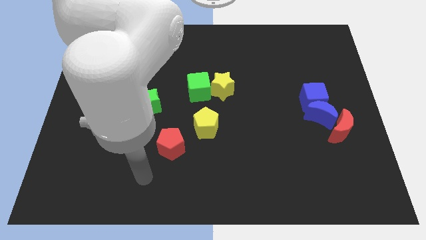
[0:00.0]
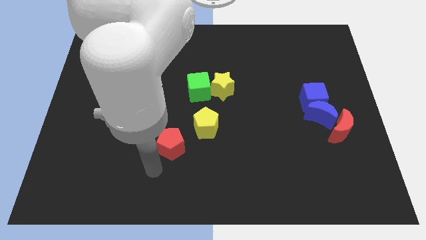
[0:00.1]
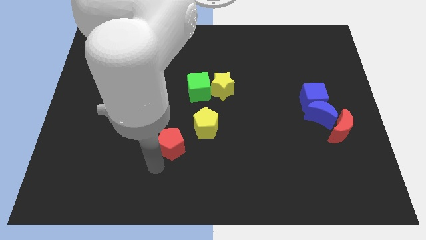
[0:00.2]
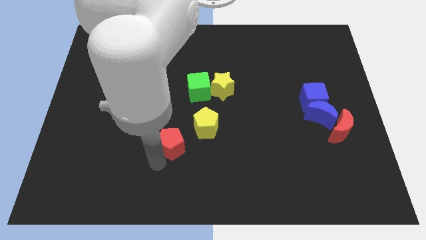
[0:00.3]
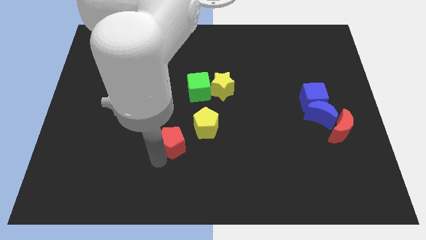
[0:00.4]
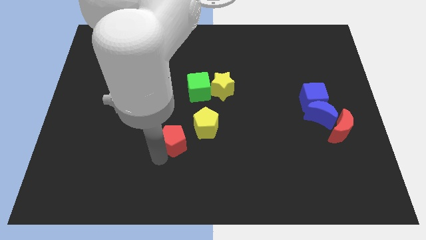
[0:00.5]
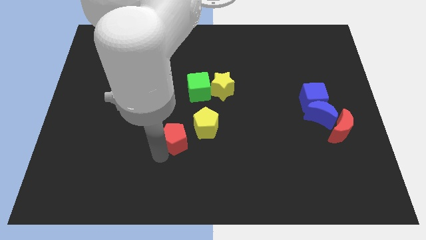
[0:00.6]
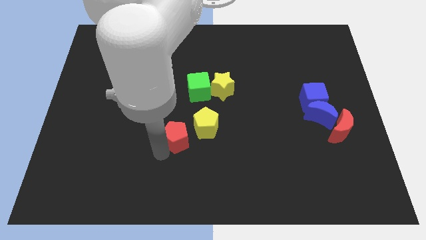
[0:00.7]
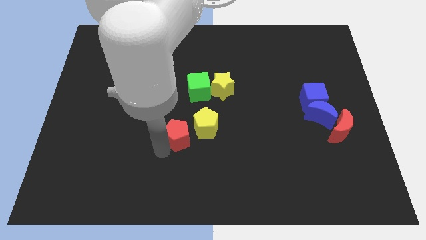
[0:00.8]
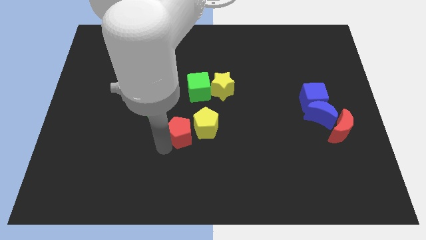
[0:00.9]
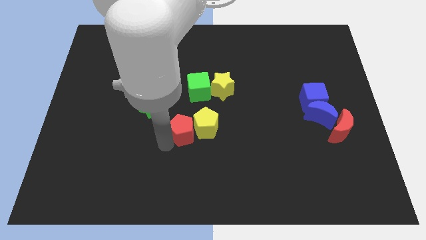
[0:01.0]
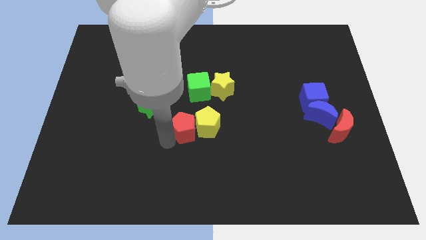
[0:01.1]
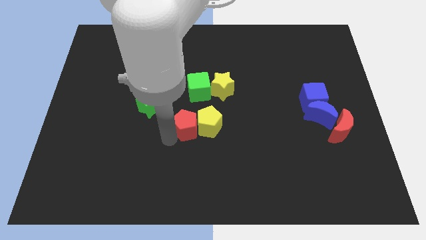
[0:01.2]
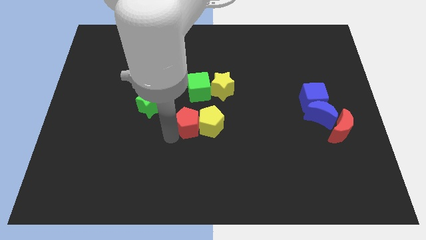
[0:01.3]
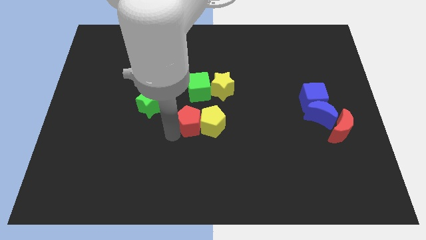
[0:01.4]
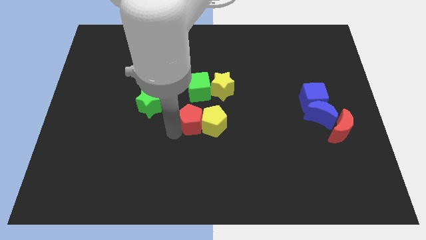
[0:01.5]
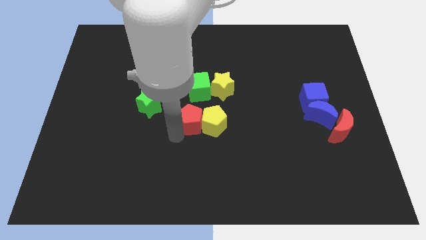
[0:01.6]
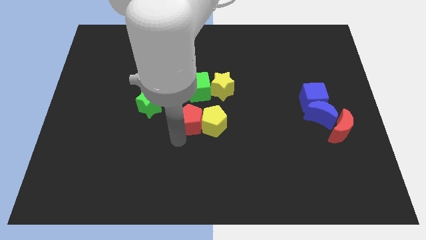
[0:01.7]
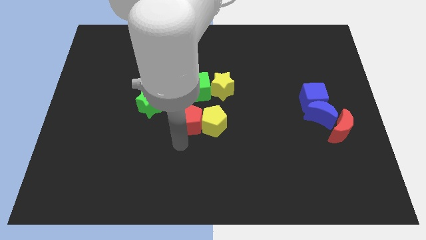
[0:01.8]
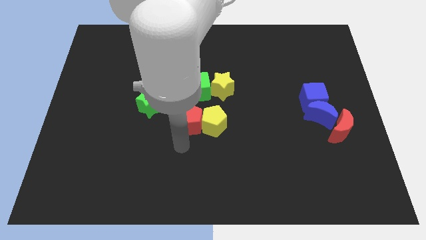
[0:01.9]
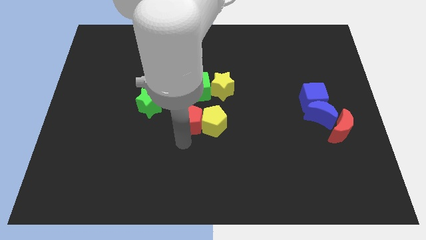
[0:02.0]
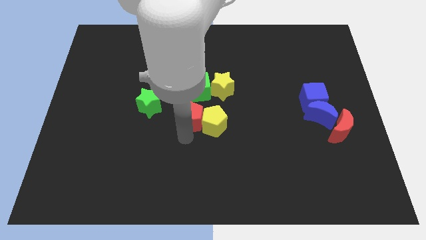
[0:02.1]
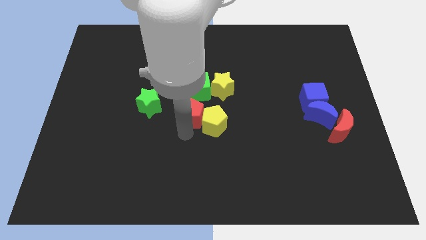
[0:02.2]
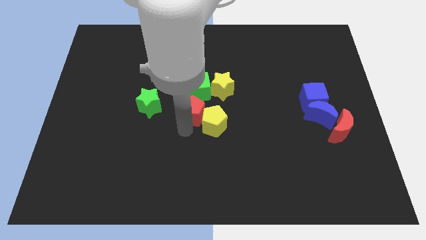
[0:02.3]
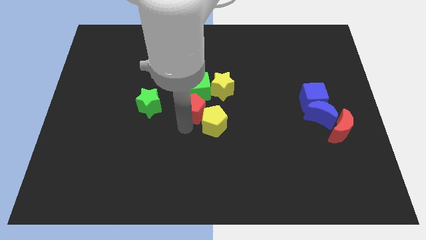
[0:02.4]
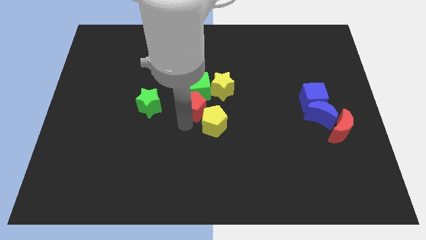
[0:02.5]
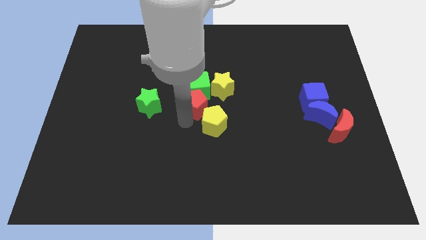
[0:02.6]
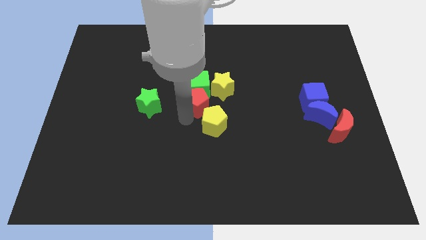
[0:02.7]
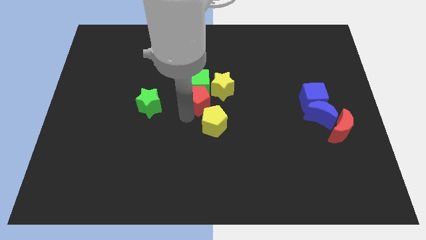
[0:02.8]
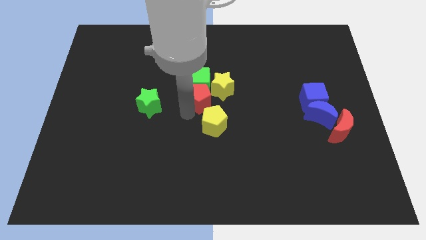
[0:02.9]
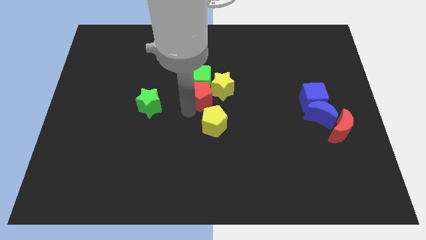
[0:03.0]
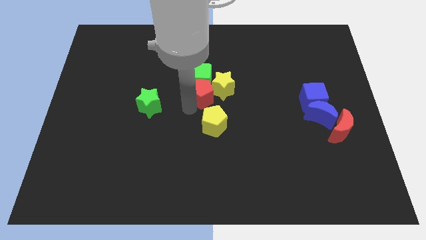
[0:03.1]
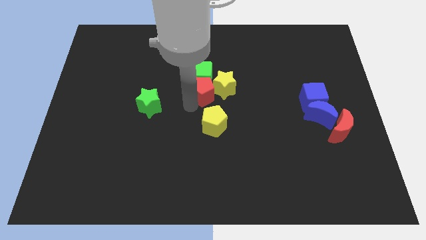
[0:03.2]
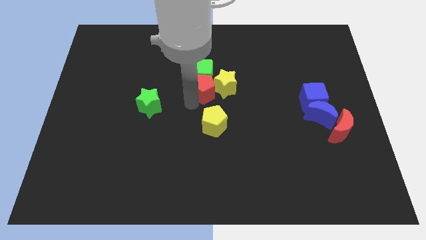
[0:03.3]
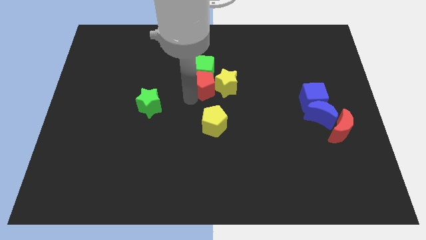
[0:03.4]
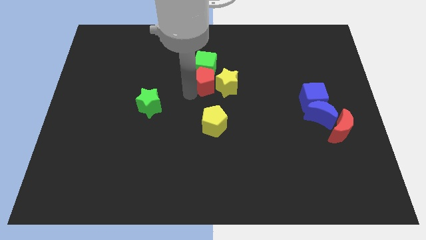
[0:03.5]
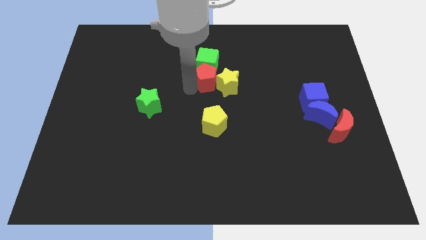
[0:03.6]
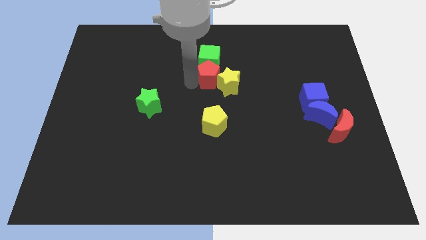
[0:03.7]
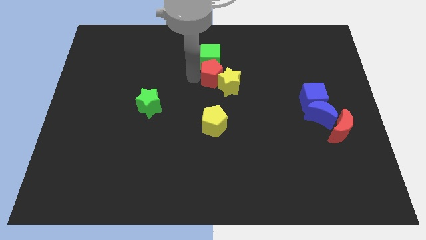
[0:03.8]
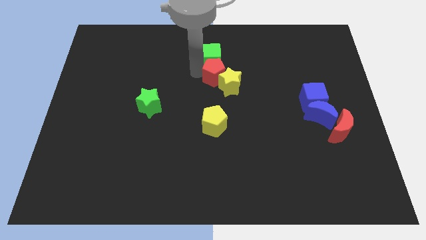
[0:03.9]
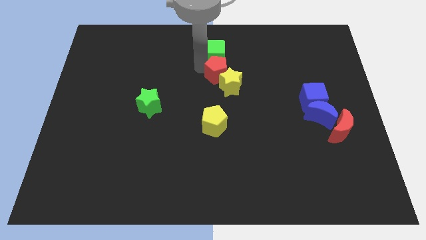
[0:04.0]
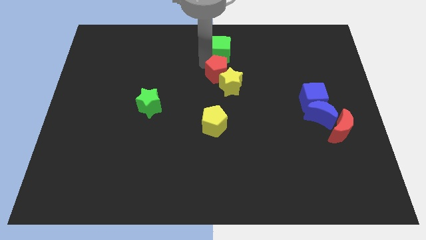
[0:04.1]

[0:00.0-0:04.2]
slide the red pentagon up and to the right diagonally

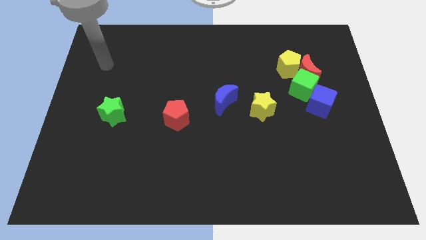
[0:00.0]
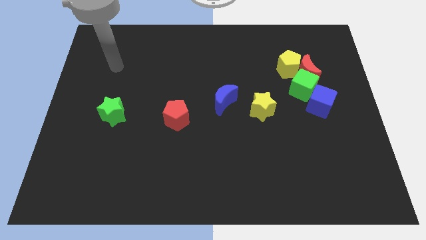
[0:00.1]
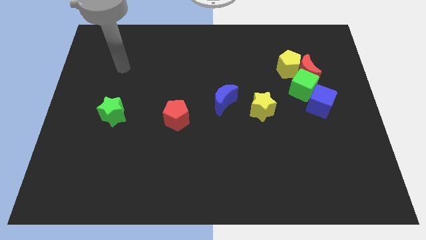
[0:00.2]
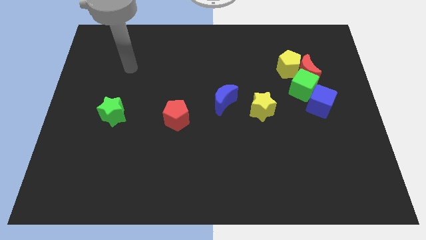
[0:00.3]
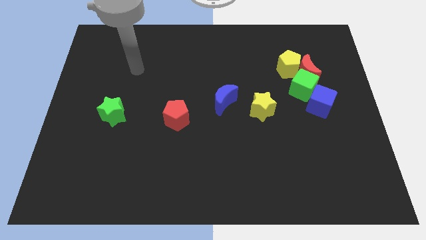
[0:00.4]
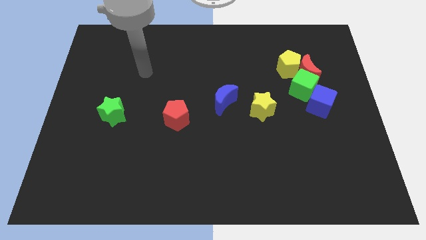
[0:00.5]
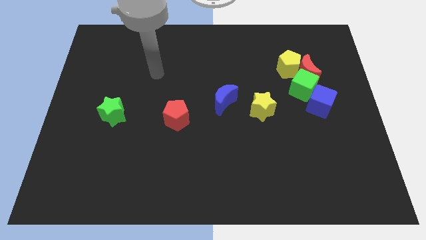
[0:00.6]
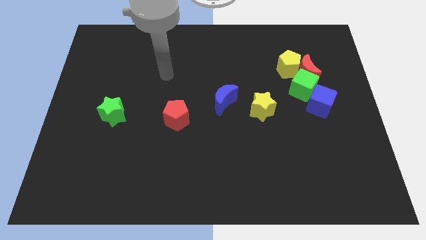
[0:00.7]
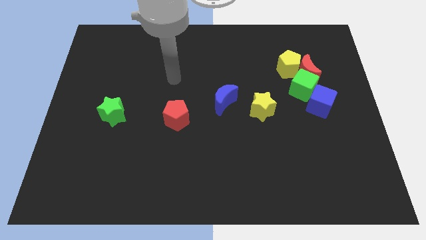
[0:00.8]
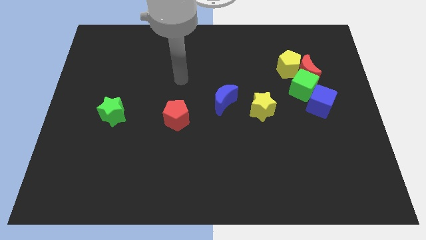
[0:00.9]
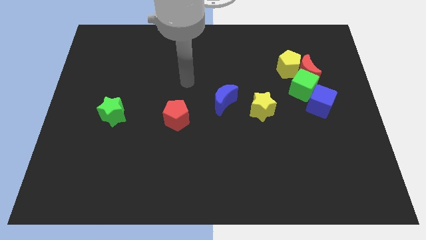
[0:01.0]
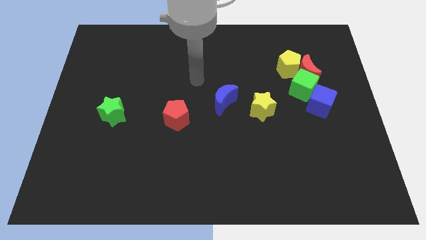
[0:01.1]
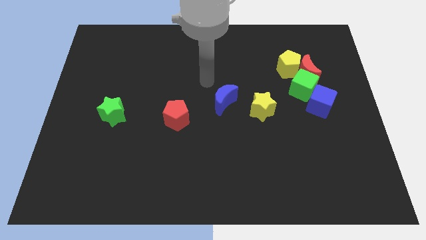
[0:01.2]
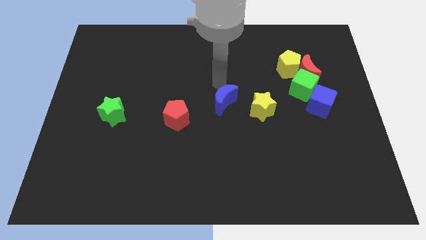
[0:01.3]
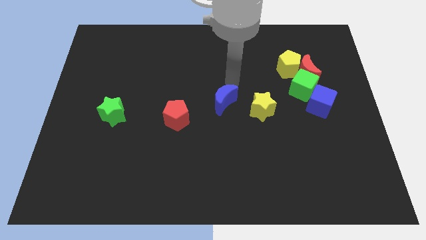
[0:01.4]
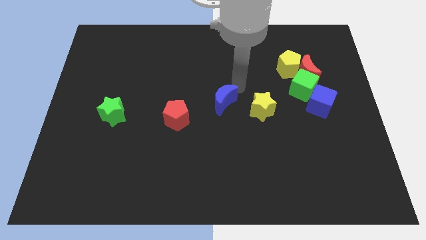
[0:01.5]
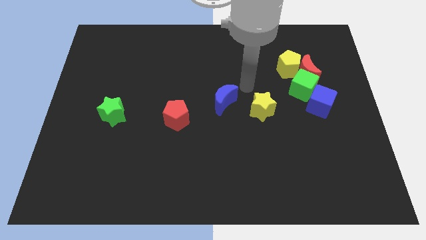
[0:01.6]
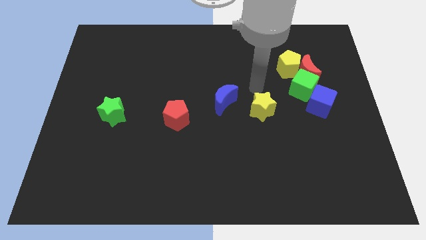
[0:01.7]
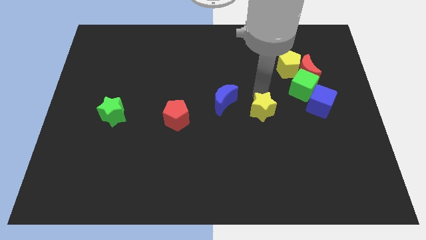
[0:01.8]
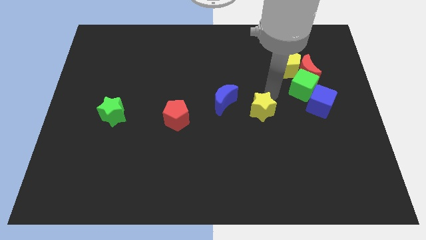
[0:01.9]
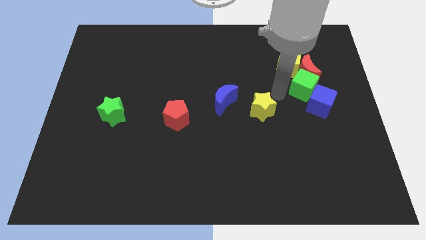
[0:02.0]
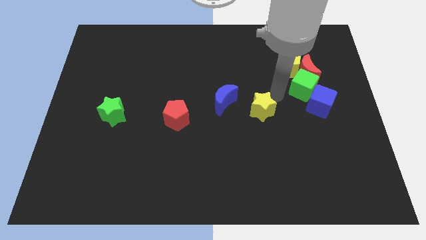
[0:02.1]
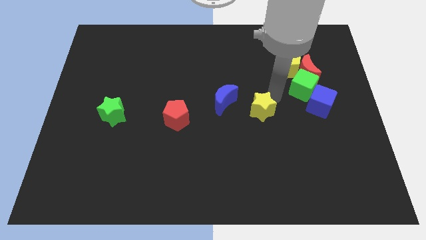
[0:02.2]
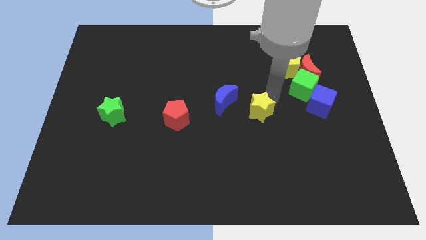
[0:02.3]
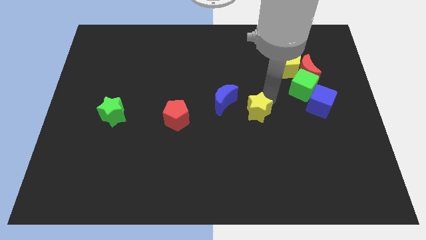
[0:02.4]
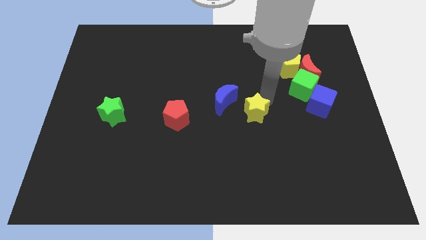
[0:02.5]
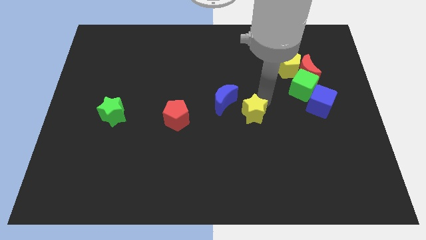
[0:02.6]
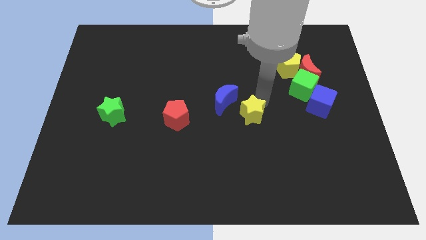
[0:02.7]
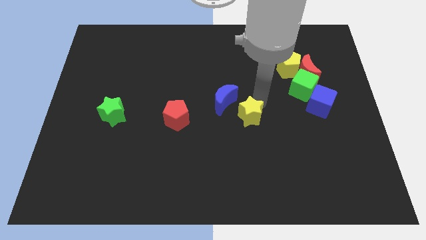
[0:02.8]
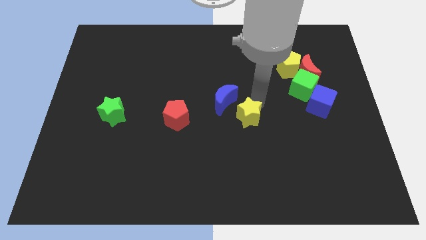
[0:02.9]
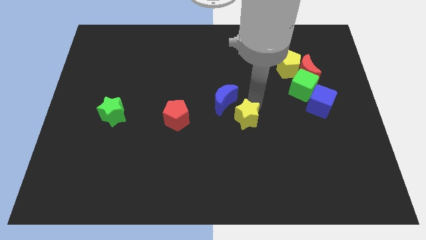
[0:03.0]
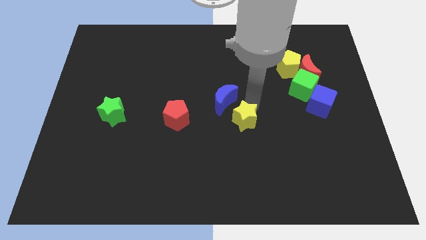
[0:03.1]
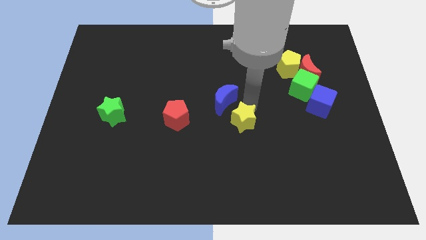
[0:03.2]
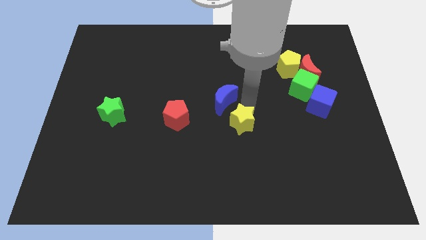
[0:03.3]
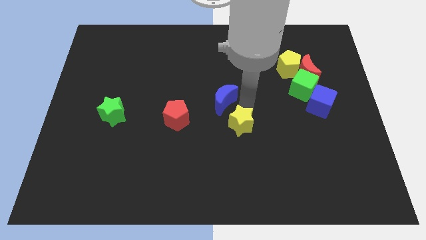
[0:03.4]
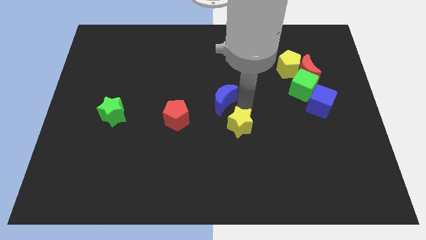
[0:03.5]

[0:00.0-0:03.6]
slide the yellow star a bit down and left diagonally
